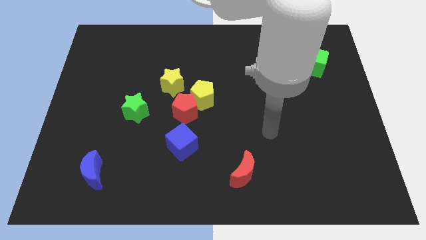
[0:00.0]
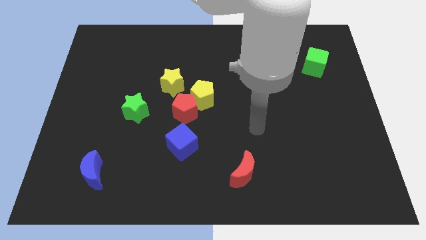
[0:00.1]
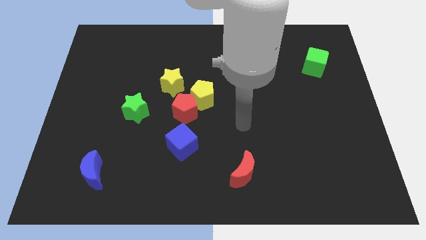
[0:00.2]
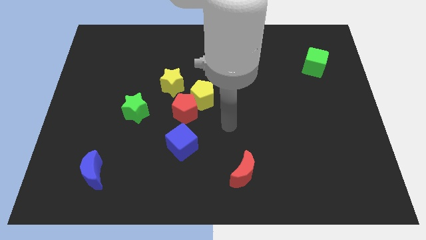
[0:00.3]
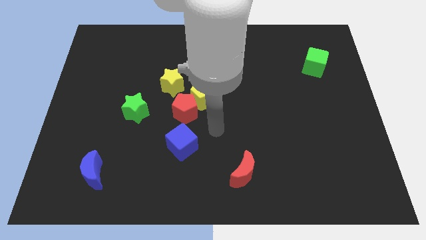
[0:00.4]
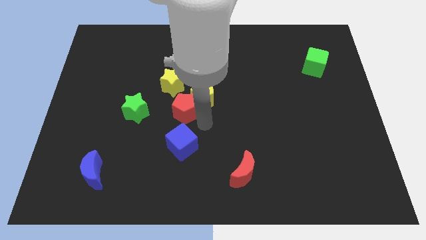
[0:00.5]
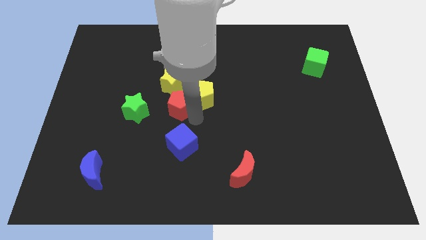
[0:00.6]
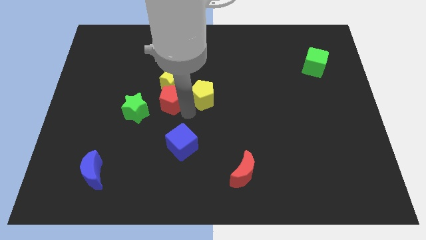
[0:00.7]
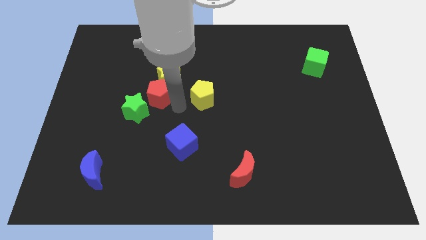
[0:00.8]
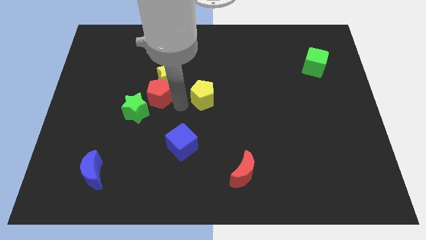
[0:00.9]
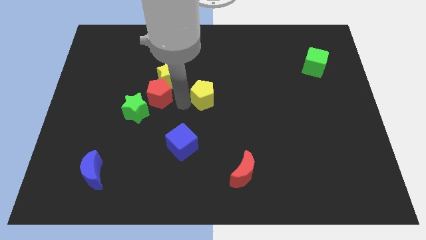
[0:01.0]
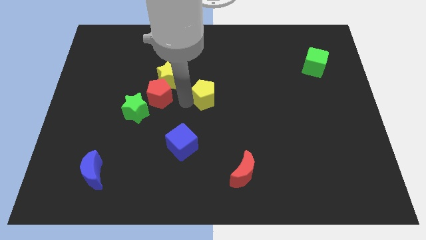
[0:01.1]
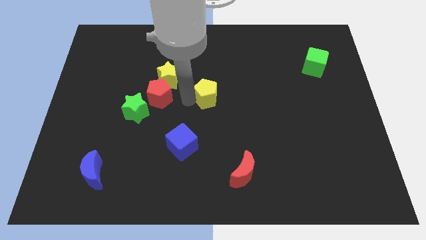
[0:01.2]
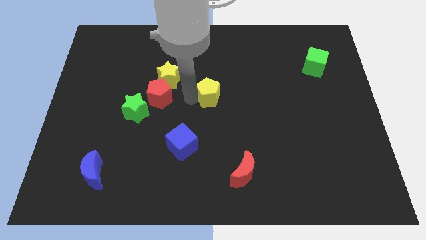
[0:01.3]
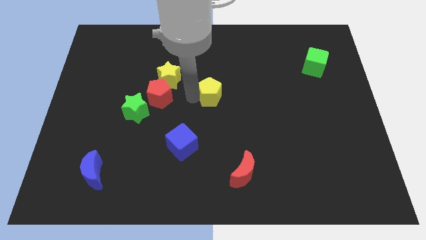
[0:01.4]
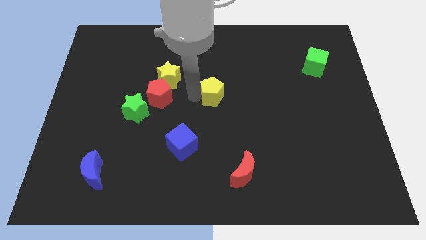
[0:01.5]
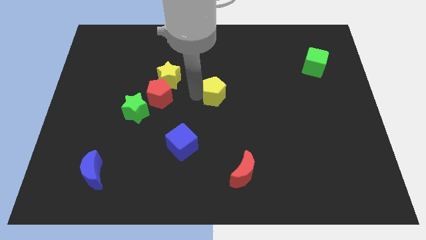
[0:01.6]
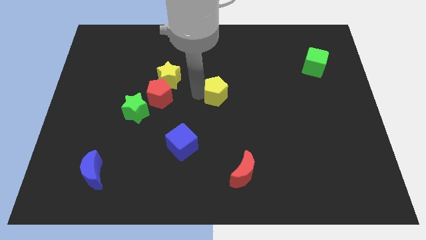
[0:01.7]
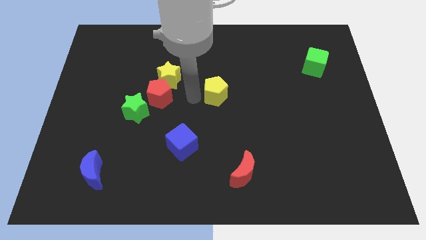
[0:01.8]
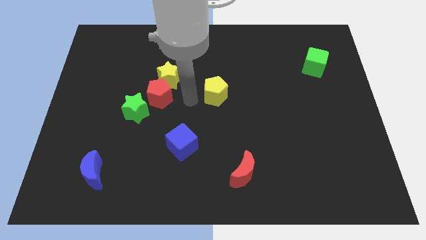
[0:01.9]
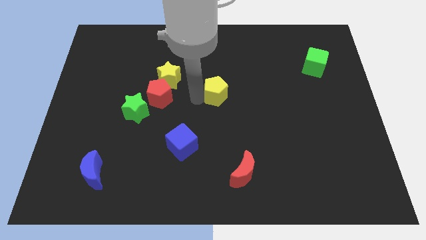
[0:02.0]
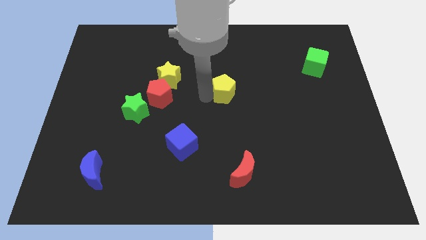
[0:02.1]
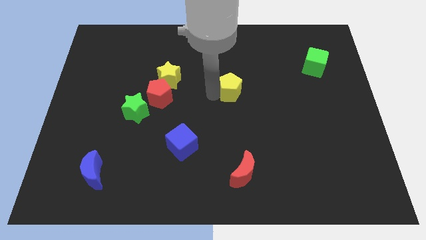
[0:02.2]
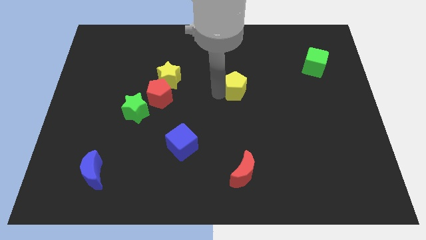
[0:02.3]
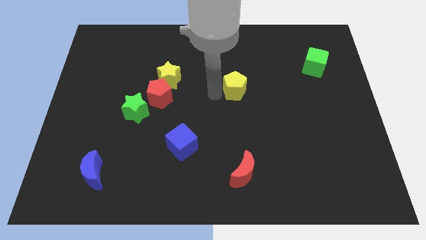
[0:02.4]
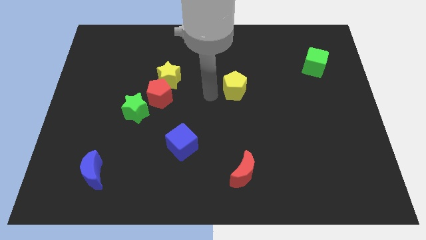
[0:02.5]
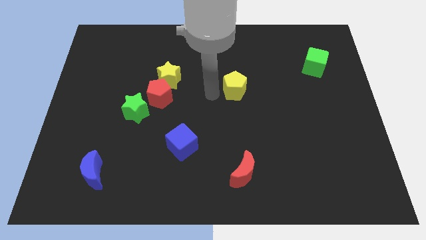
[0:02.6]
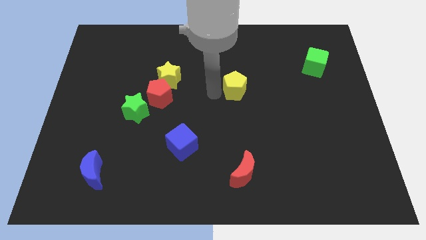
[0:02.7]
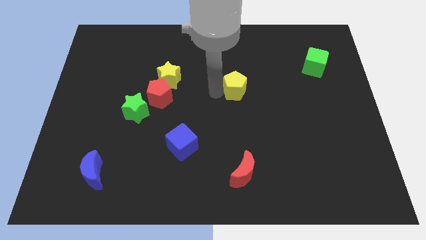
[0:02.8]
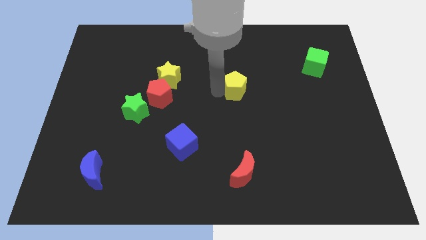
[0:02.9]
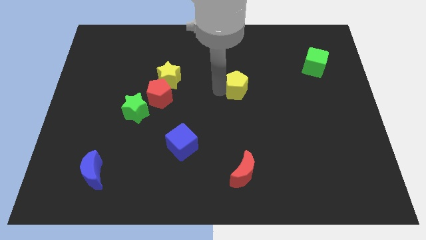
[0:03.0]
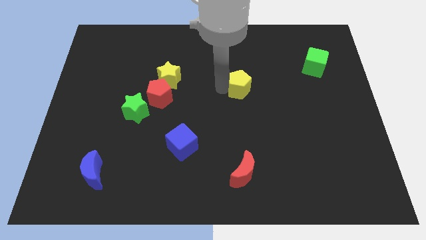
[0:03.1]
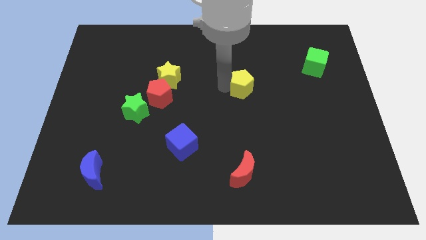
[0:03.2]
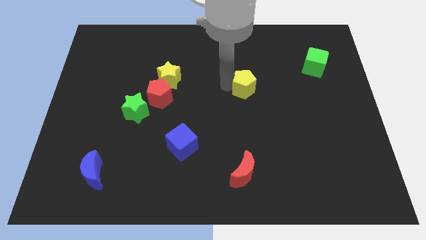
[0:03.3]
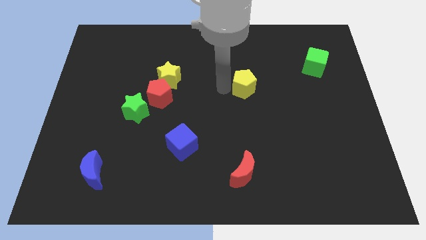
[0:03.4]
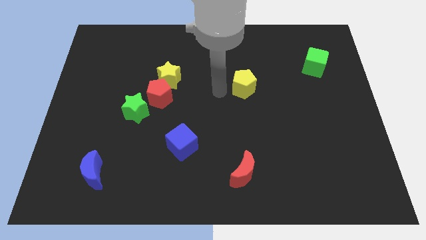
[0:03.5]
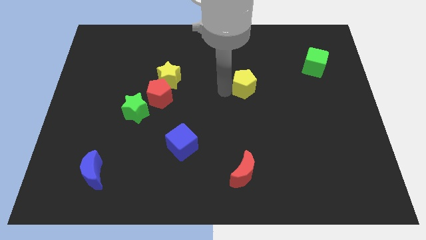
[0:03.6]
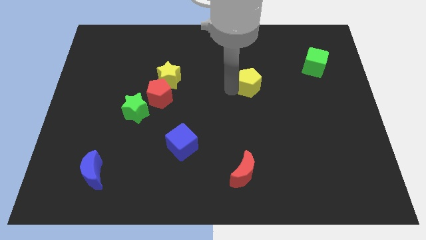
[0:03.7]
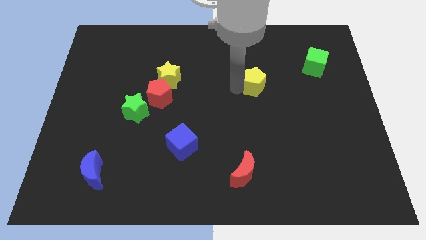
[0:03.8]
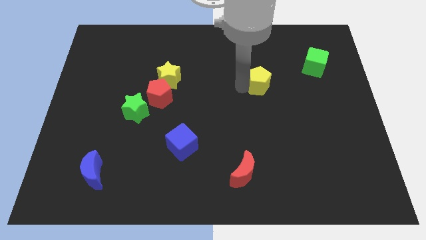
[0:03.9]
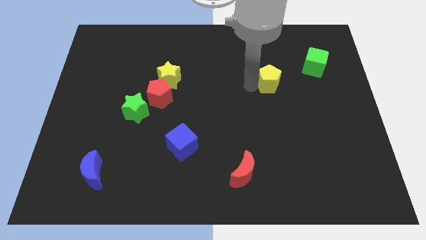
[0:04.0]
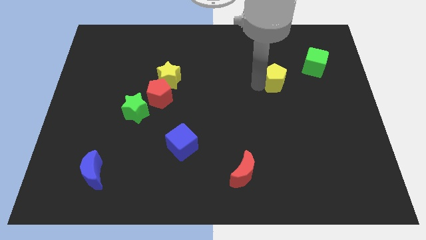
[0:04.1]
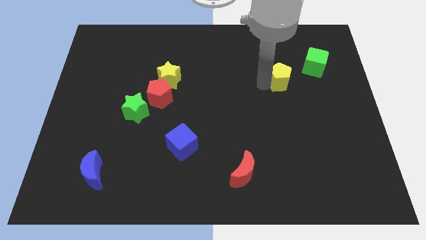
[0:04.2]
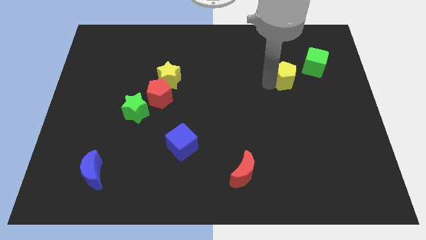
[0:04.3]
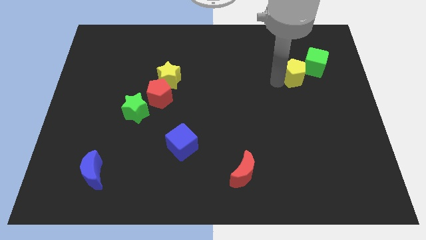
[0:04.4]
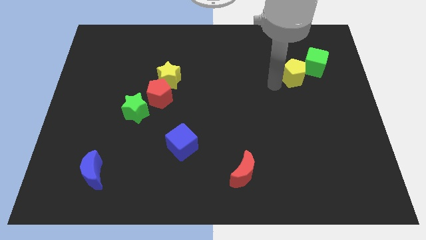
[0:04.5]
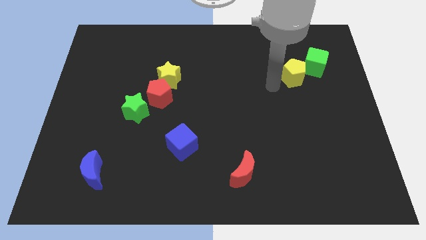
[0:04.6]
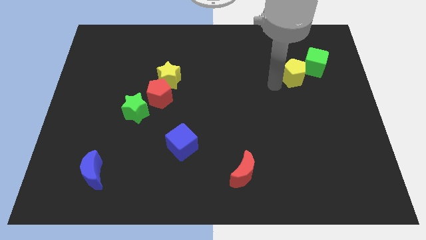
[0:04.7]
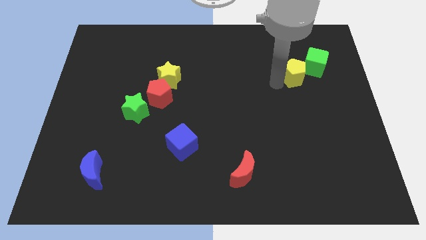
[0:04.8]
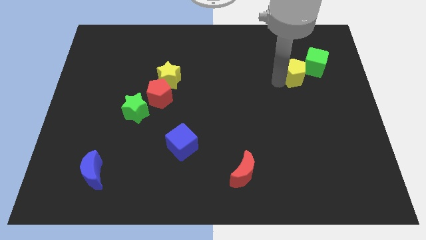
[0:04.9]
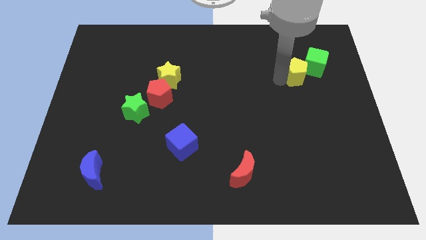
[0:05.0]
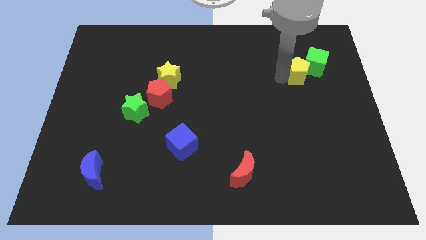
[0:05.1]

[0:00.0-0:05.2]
slide the yellow pentagon towards the green cube

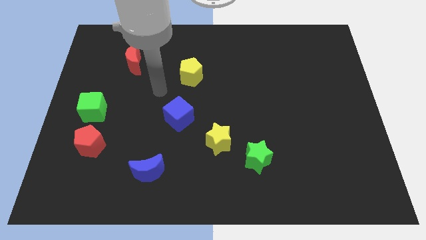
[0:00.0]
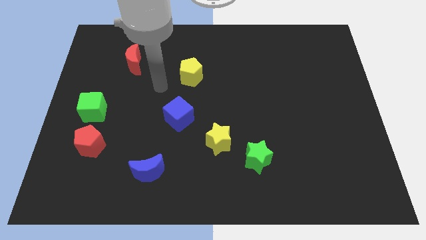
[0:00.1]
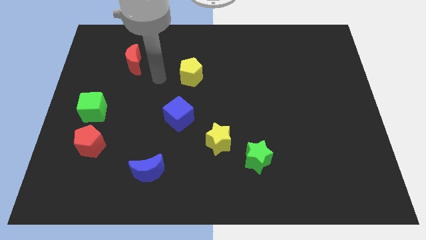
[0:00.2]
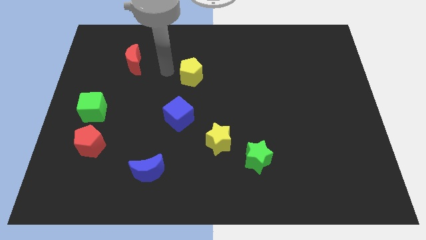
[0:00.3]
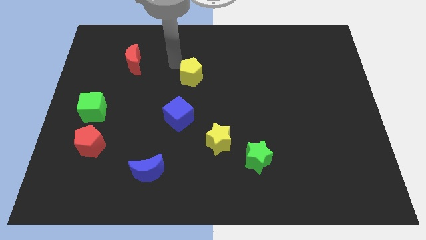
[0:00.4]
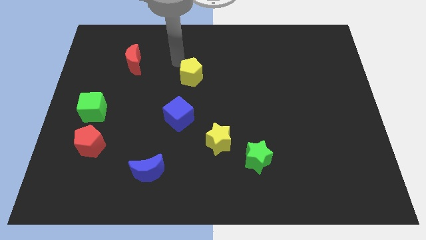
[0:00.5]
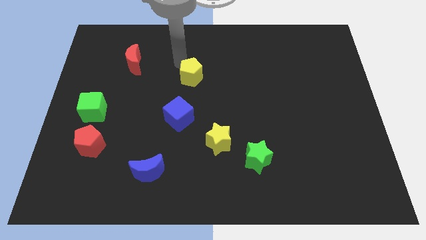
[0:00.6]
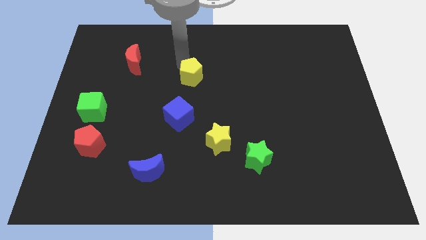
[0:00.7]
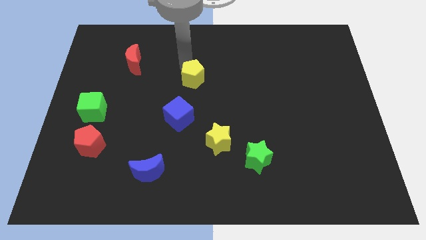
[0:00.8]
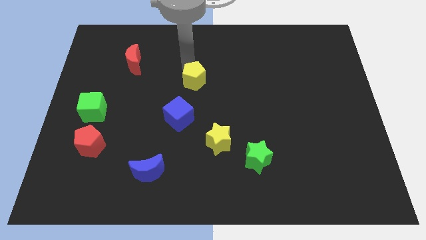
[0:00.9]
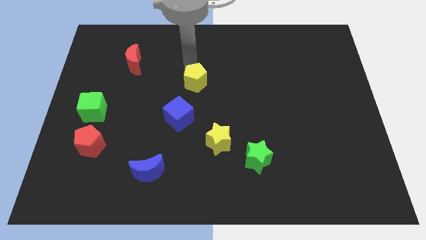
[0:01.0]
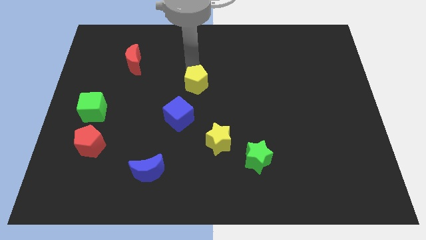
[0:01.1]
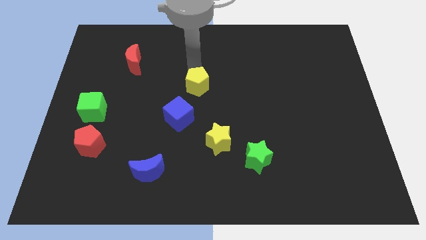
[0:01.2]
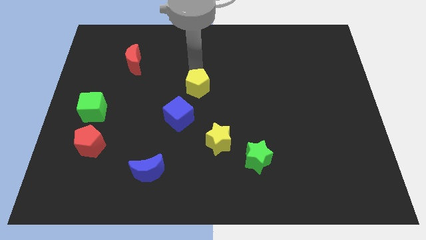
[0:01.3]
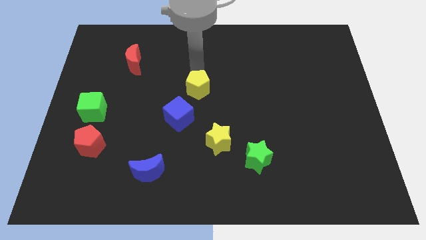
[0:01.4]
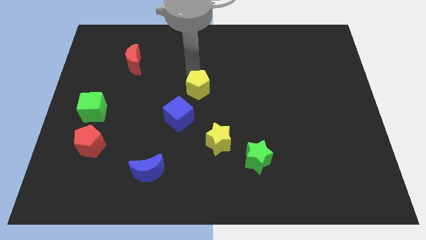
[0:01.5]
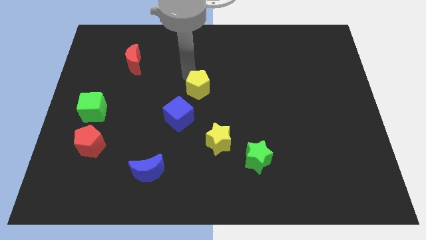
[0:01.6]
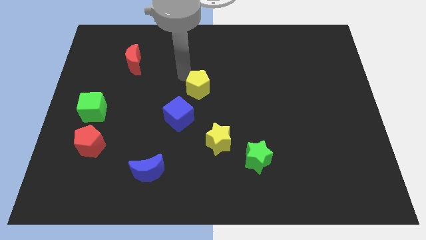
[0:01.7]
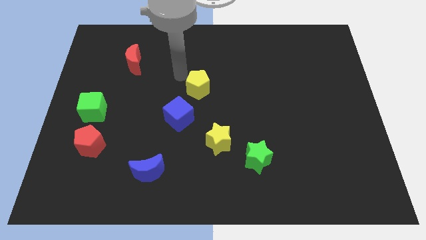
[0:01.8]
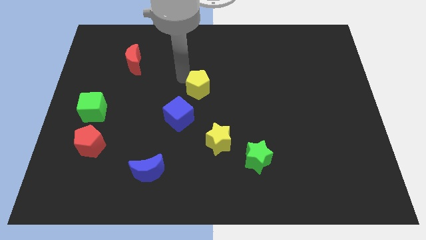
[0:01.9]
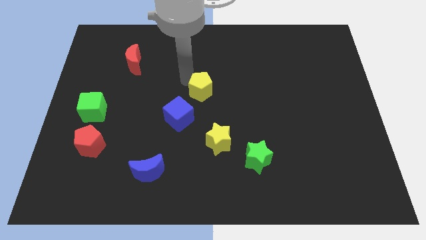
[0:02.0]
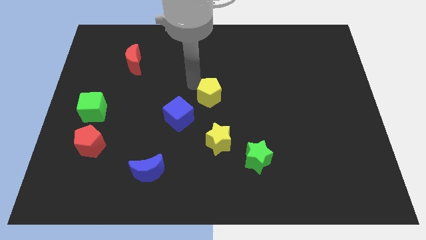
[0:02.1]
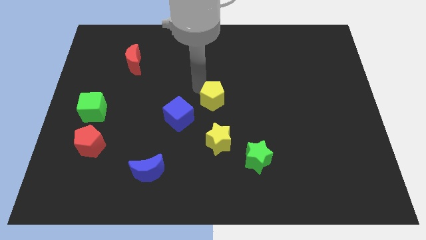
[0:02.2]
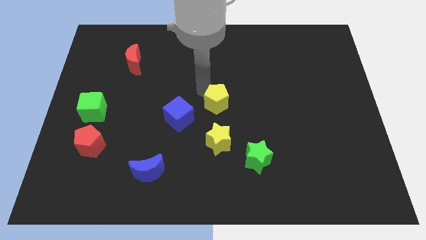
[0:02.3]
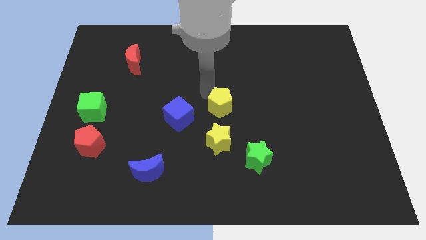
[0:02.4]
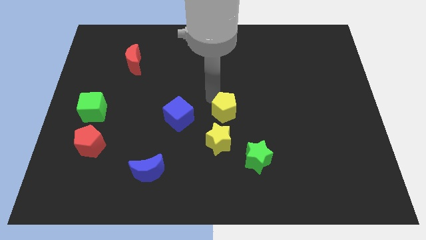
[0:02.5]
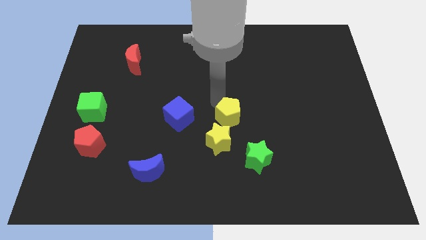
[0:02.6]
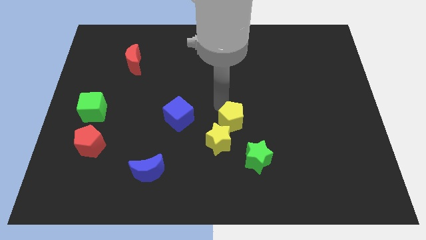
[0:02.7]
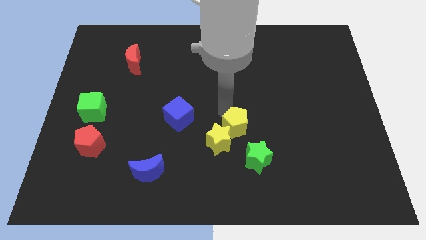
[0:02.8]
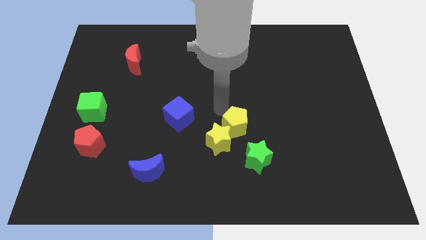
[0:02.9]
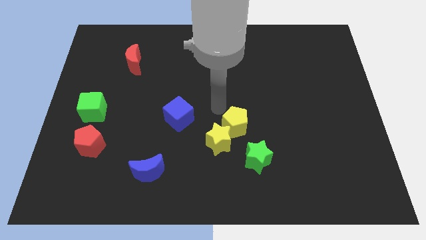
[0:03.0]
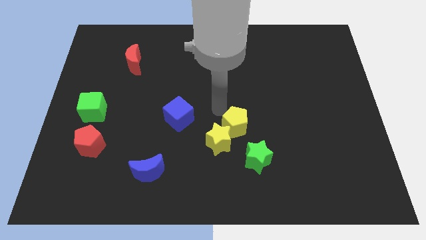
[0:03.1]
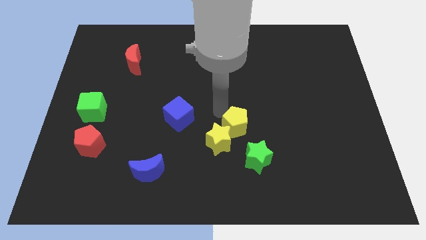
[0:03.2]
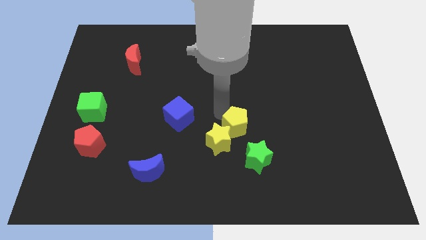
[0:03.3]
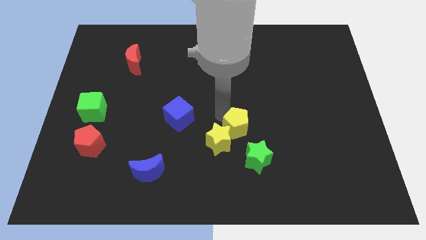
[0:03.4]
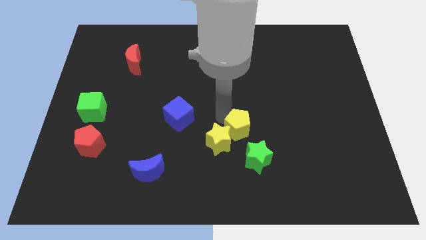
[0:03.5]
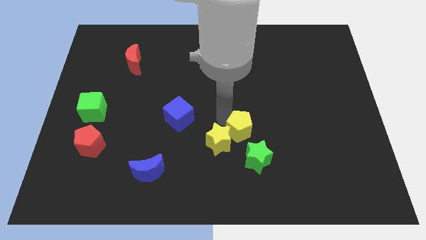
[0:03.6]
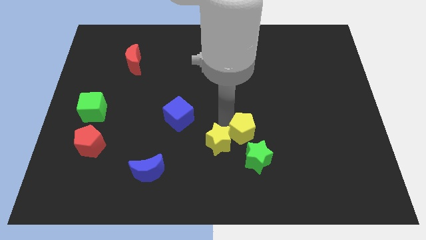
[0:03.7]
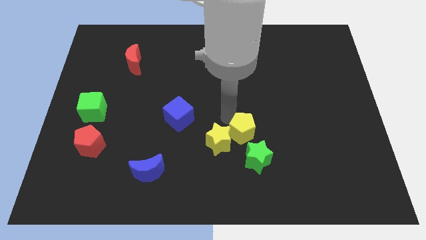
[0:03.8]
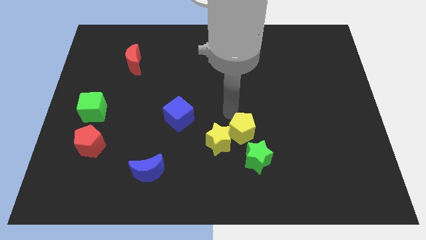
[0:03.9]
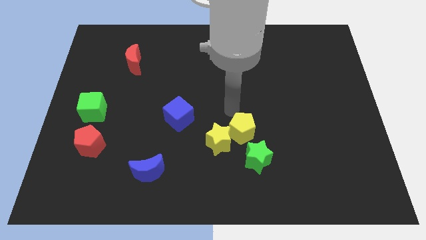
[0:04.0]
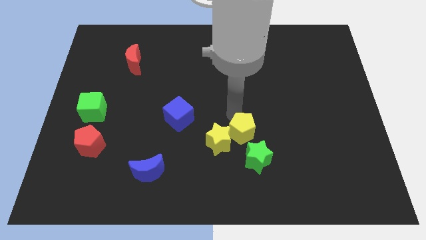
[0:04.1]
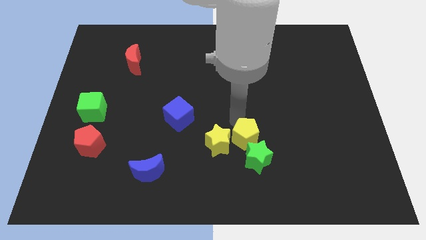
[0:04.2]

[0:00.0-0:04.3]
put the yellow pentagon next to the green star
